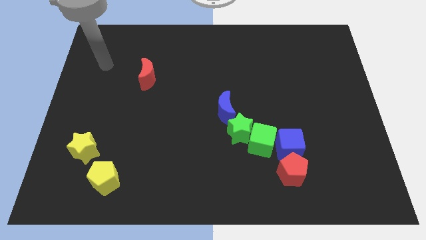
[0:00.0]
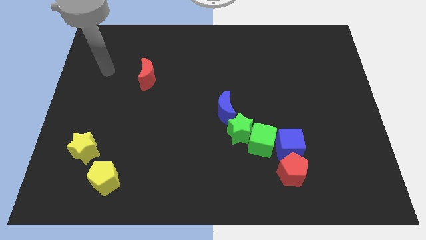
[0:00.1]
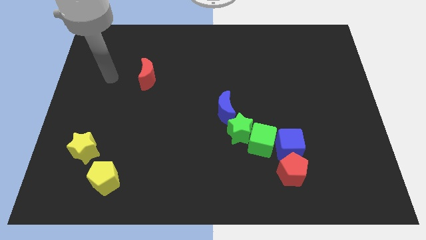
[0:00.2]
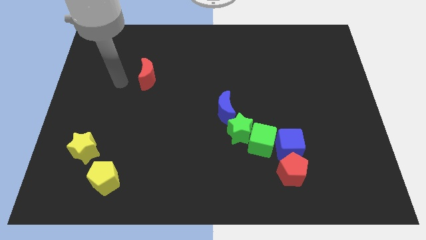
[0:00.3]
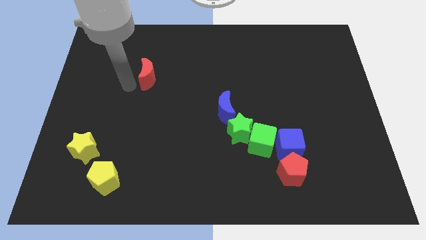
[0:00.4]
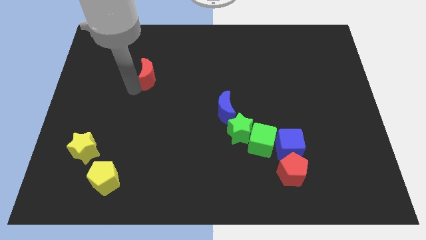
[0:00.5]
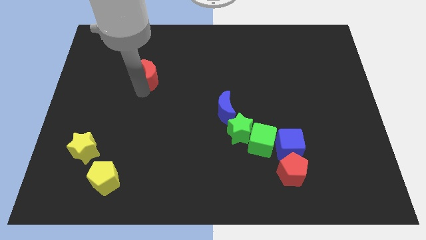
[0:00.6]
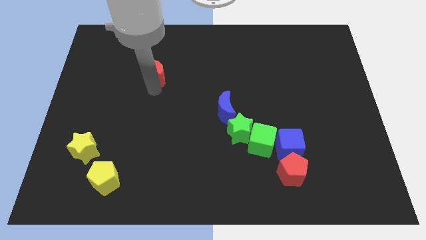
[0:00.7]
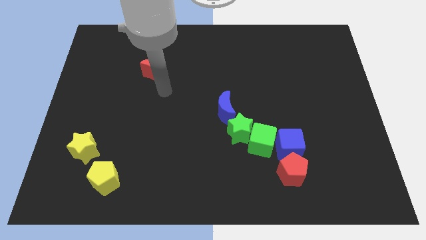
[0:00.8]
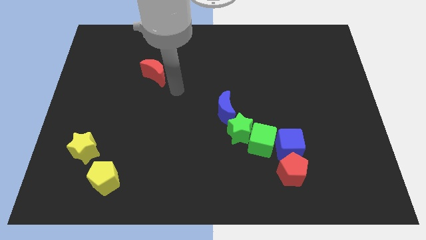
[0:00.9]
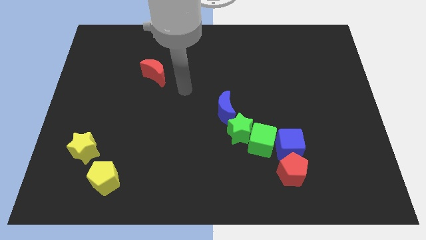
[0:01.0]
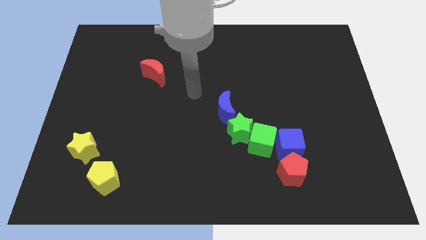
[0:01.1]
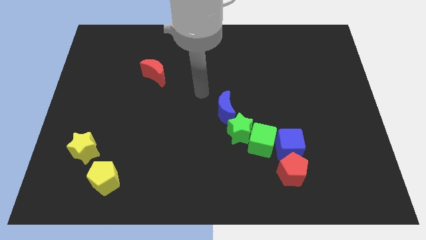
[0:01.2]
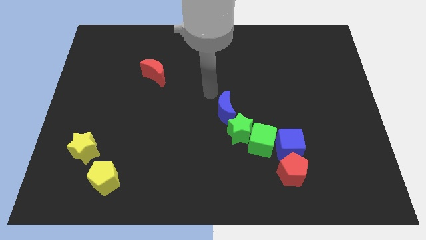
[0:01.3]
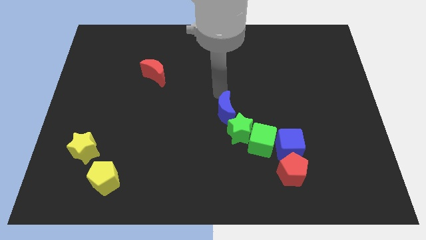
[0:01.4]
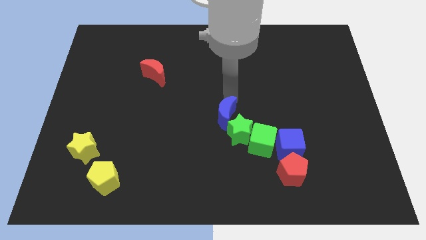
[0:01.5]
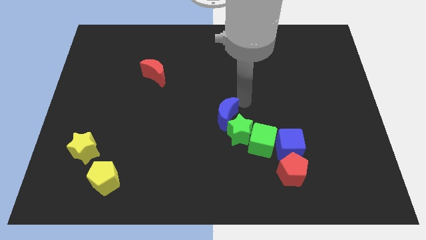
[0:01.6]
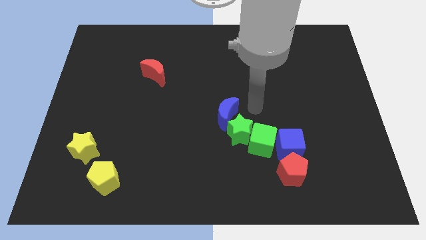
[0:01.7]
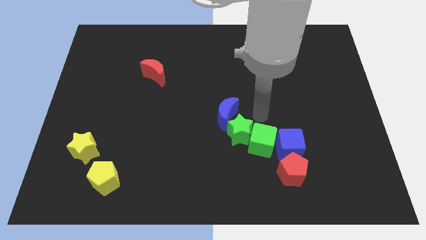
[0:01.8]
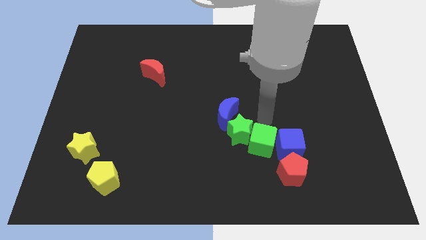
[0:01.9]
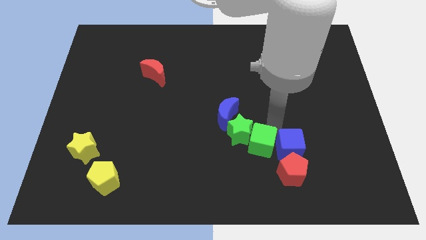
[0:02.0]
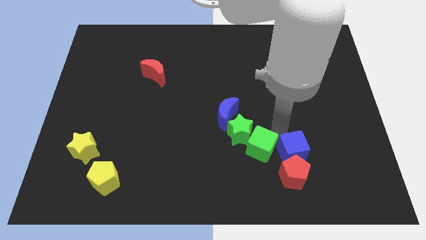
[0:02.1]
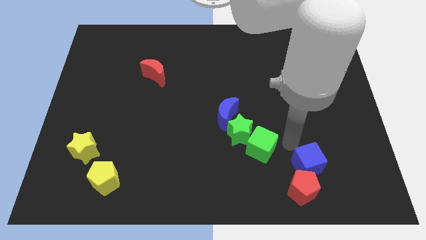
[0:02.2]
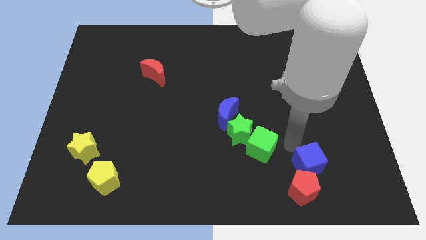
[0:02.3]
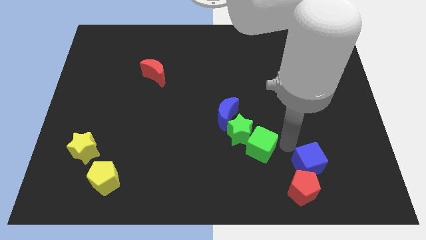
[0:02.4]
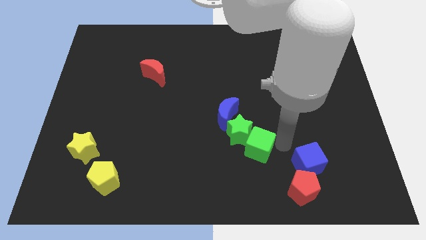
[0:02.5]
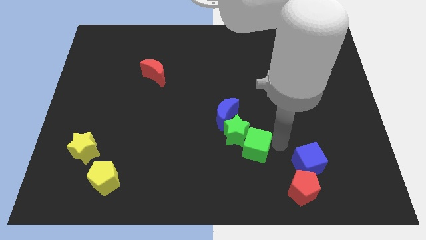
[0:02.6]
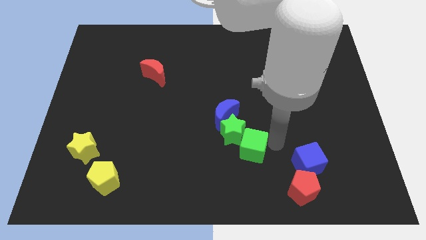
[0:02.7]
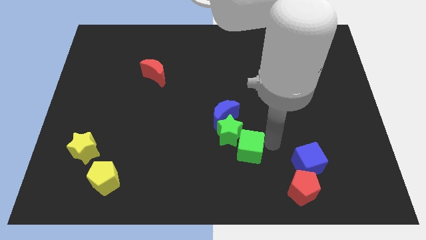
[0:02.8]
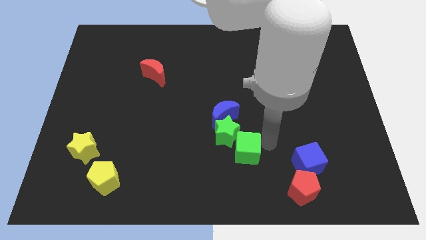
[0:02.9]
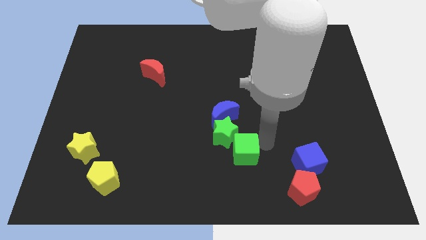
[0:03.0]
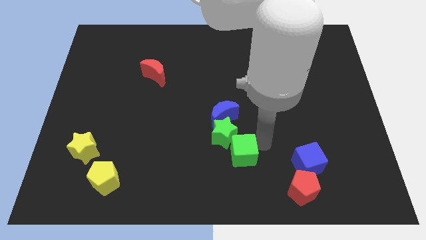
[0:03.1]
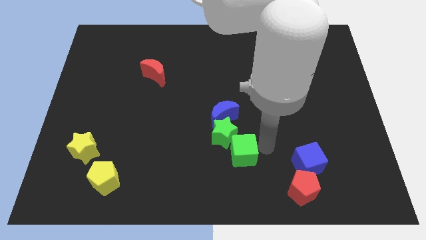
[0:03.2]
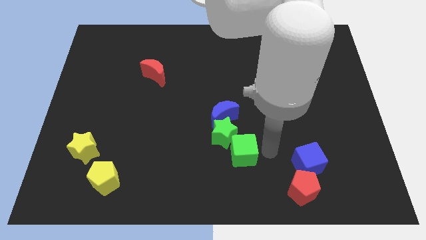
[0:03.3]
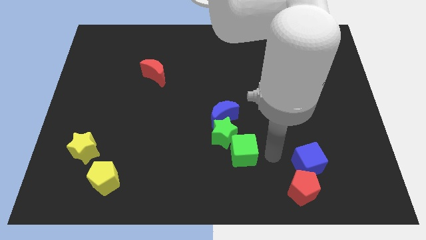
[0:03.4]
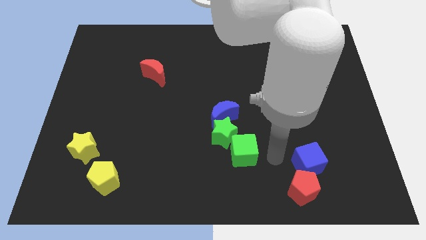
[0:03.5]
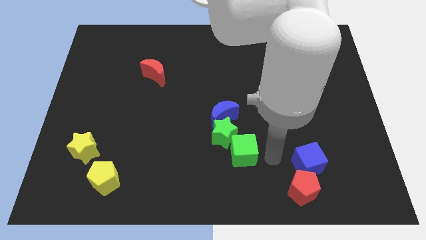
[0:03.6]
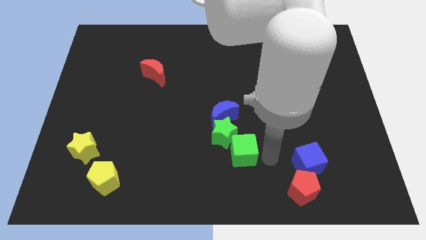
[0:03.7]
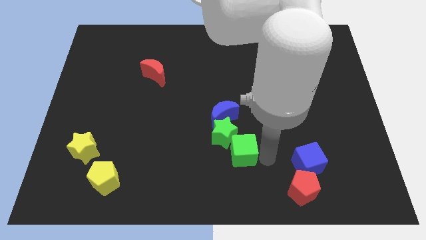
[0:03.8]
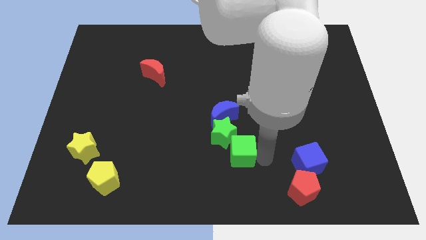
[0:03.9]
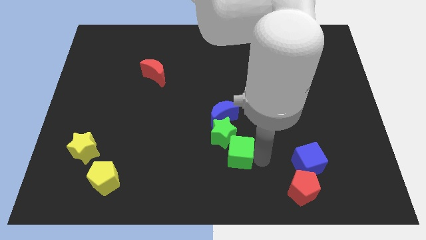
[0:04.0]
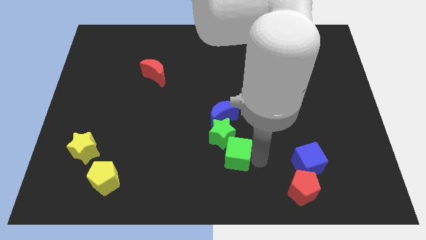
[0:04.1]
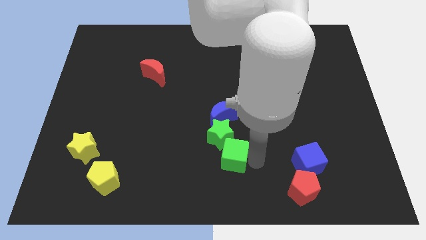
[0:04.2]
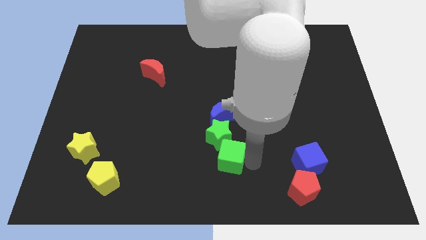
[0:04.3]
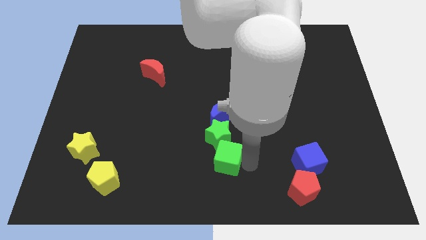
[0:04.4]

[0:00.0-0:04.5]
slightly slide the green cube to the left

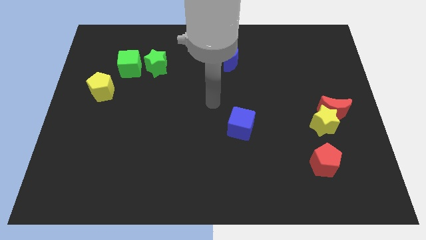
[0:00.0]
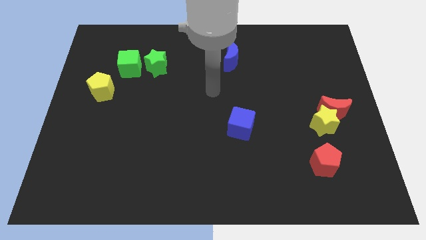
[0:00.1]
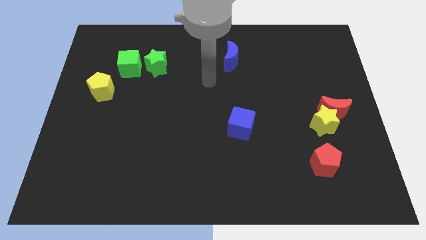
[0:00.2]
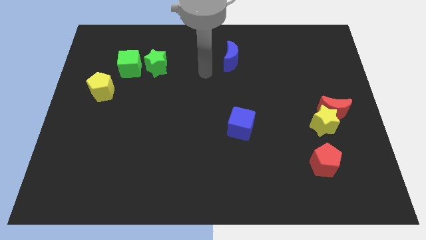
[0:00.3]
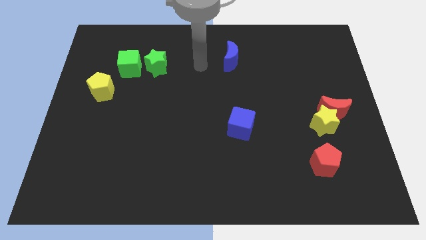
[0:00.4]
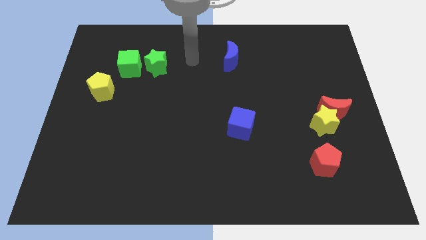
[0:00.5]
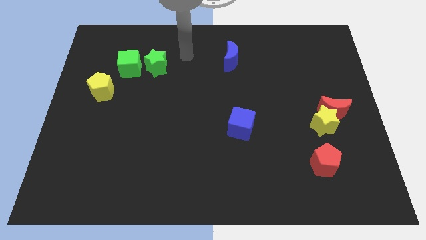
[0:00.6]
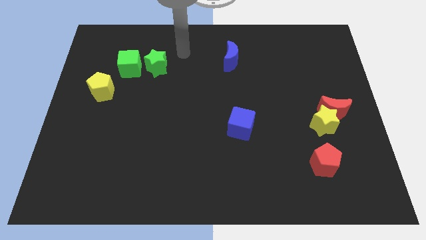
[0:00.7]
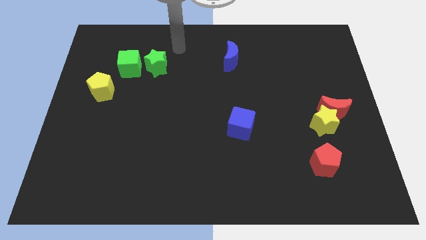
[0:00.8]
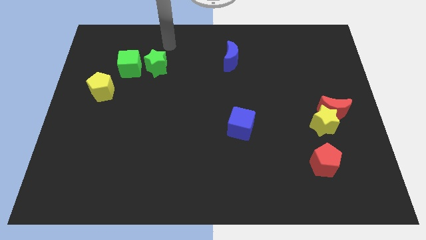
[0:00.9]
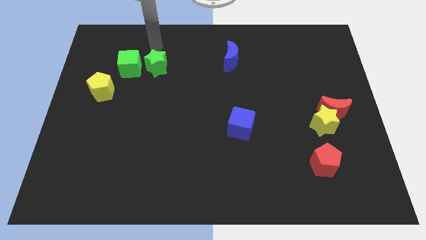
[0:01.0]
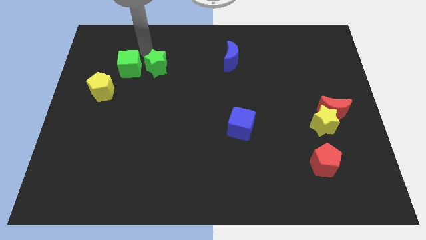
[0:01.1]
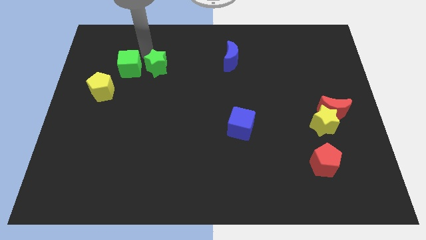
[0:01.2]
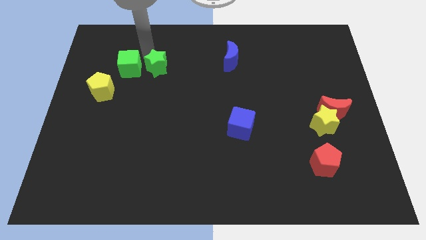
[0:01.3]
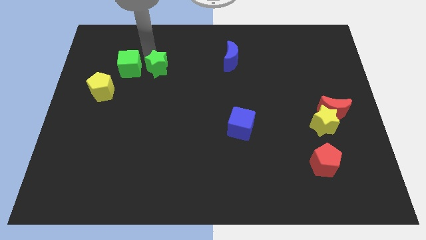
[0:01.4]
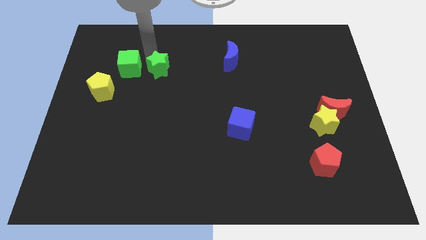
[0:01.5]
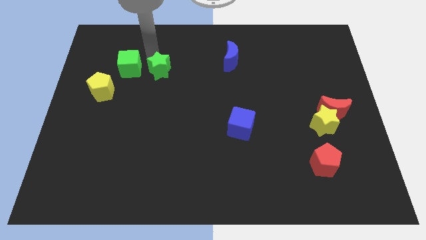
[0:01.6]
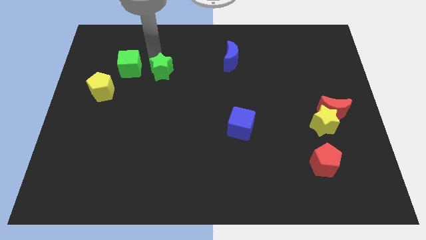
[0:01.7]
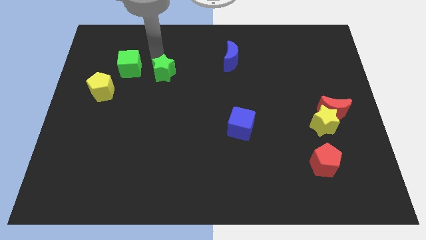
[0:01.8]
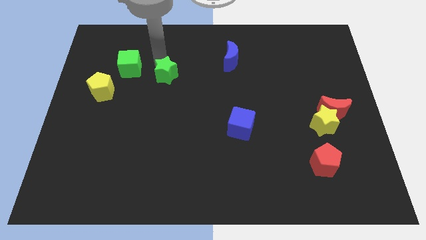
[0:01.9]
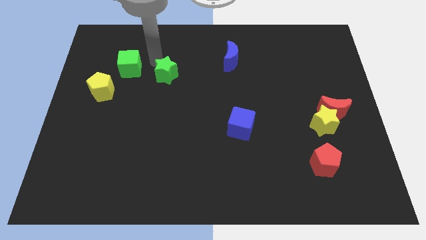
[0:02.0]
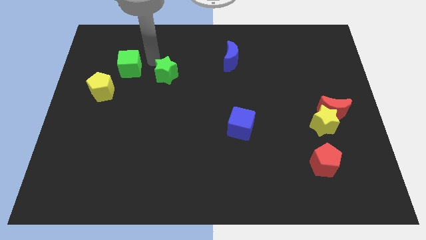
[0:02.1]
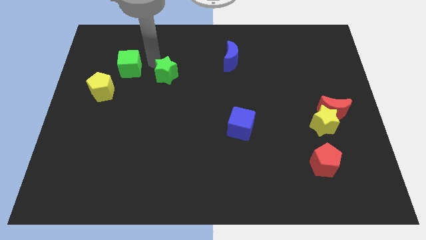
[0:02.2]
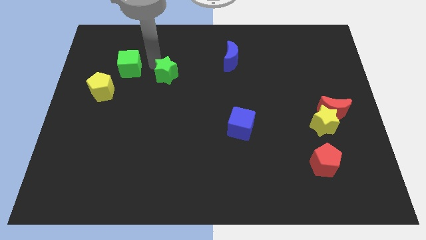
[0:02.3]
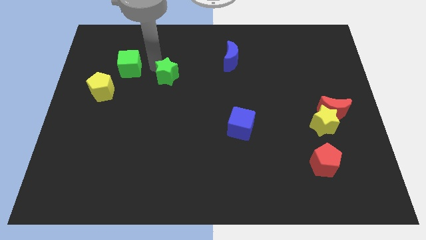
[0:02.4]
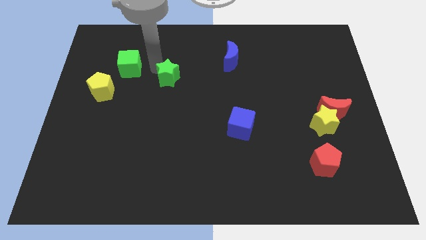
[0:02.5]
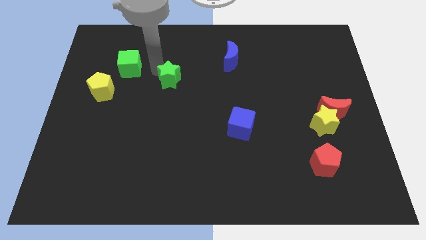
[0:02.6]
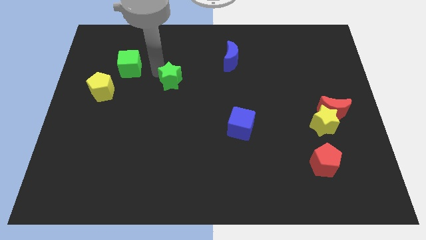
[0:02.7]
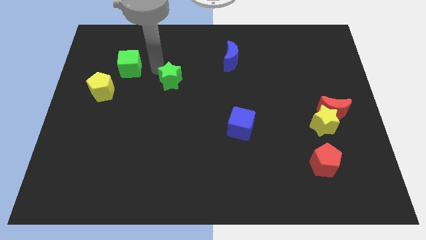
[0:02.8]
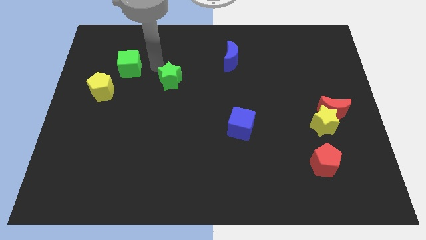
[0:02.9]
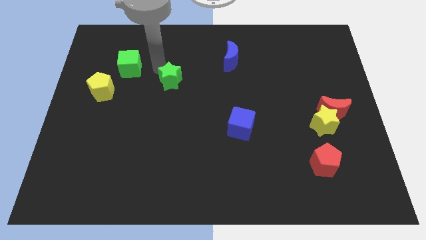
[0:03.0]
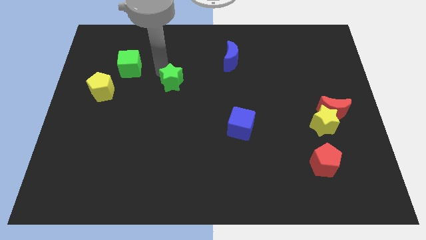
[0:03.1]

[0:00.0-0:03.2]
slightly slide the green star down and to the right diagonally

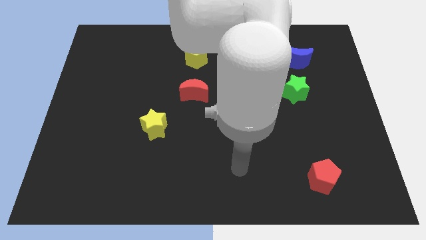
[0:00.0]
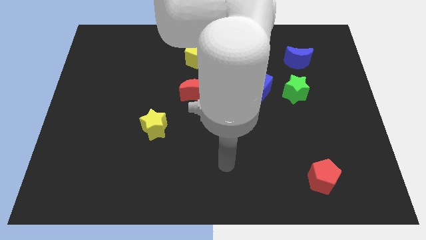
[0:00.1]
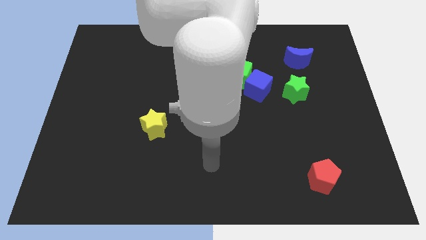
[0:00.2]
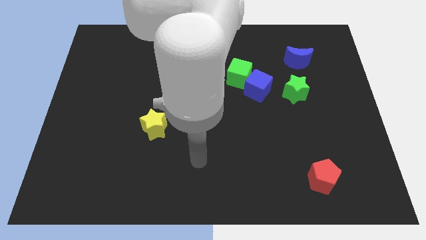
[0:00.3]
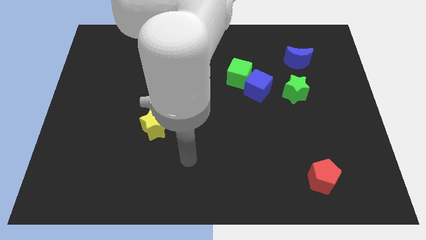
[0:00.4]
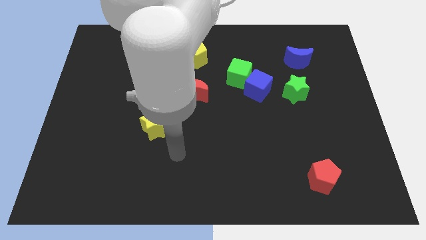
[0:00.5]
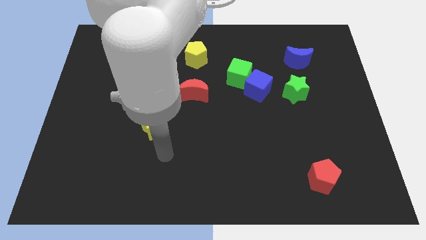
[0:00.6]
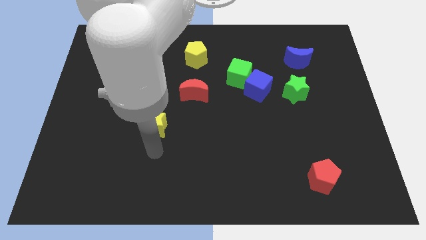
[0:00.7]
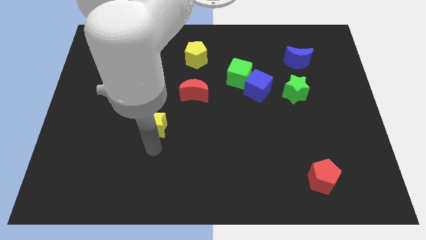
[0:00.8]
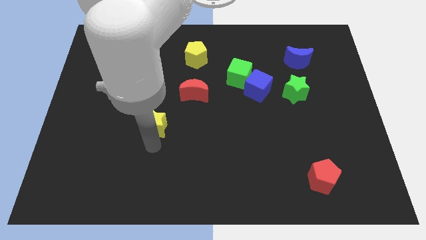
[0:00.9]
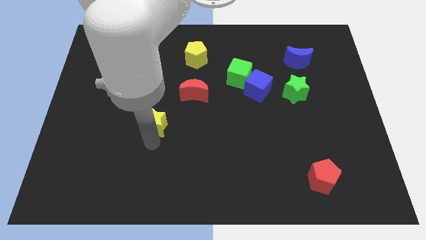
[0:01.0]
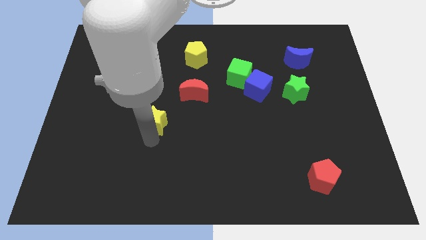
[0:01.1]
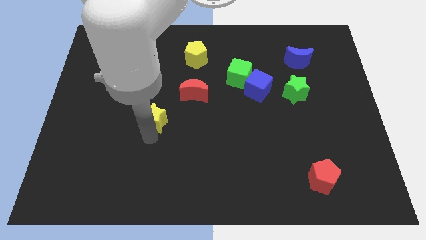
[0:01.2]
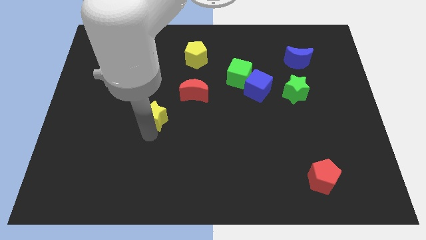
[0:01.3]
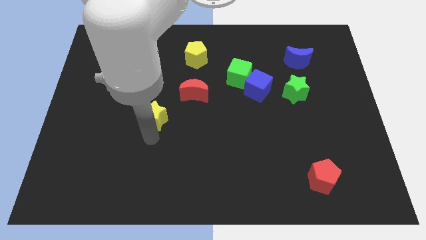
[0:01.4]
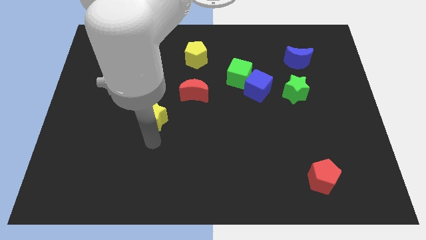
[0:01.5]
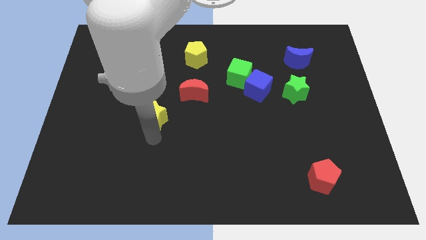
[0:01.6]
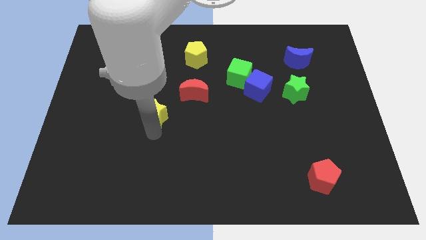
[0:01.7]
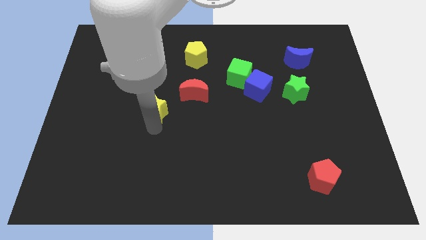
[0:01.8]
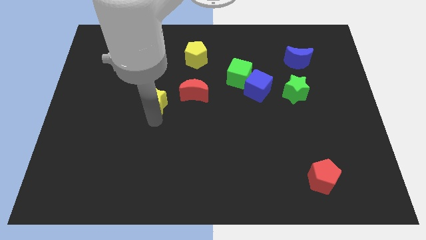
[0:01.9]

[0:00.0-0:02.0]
slide the yellow star a bit up
